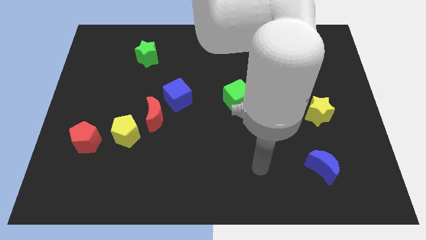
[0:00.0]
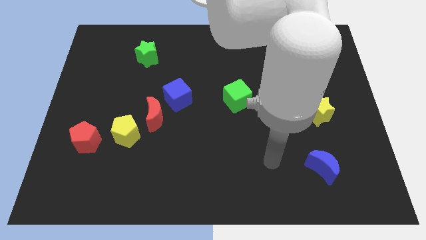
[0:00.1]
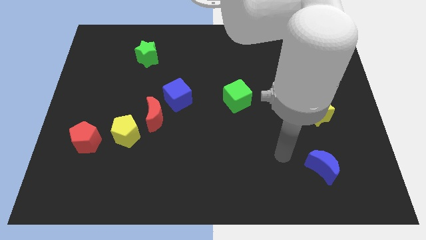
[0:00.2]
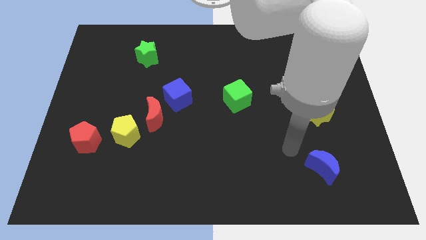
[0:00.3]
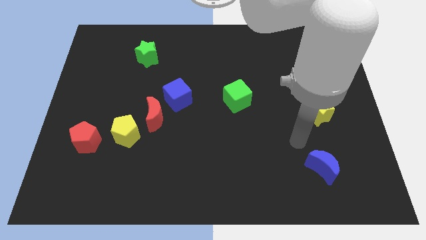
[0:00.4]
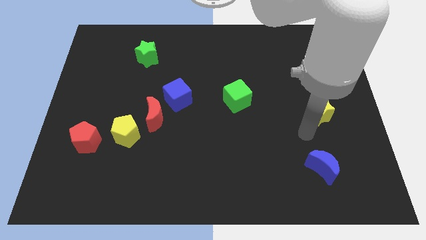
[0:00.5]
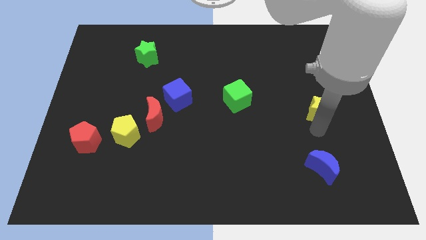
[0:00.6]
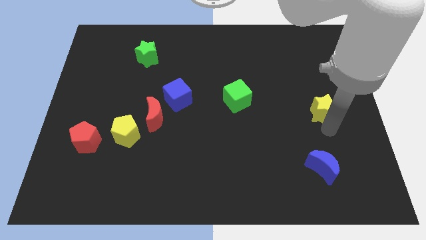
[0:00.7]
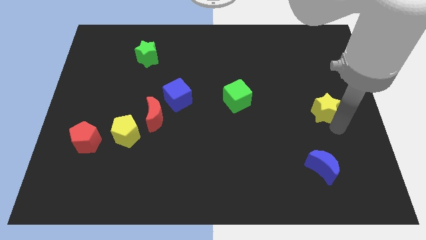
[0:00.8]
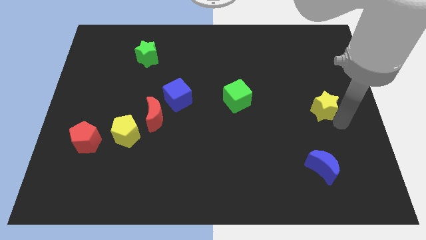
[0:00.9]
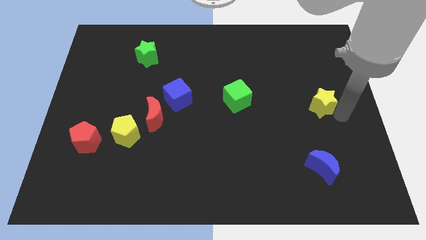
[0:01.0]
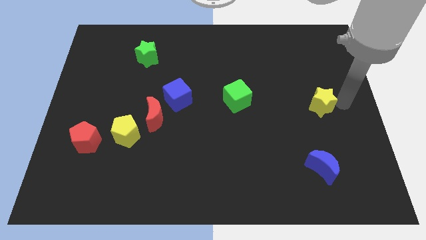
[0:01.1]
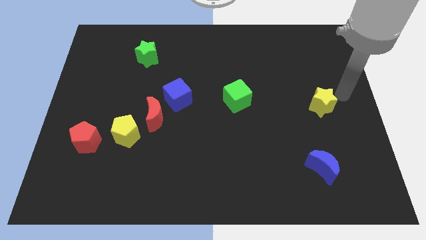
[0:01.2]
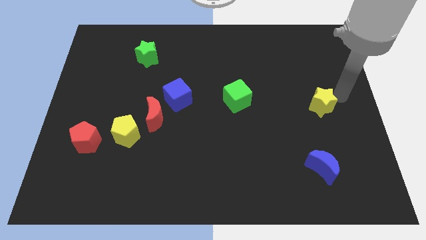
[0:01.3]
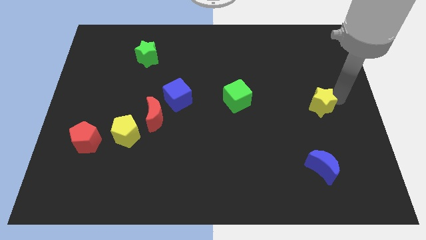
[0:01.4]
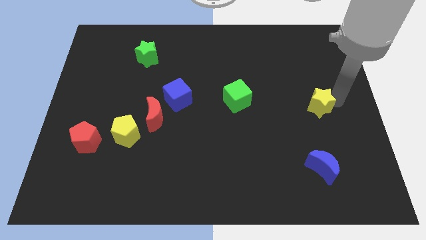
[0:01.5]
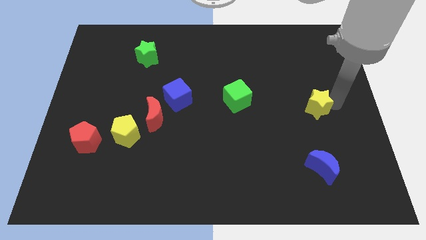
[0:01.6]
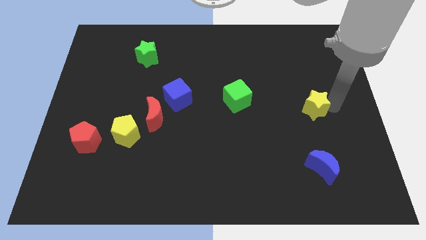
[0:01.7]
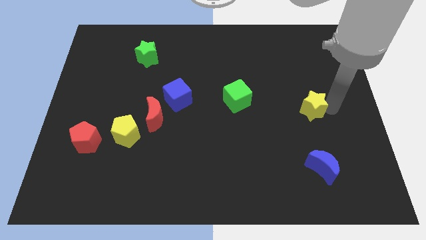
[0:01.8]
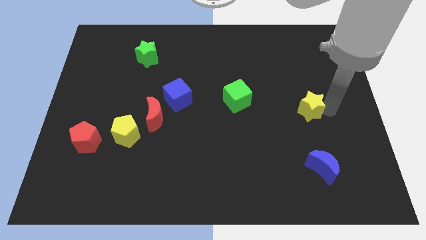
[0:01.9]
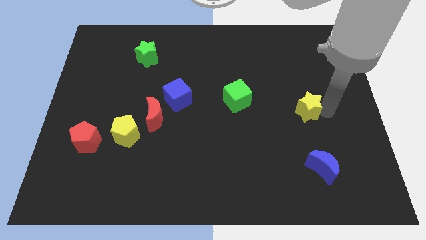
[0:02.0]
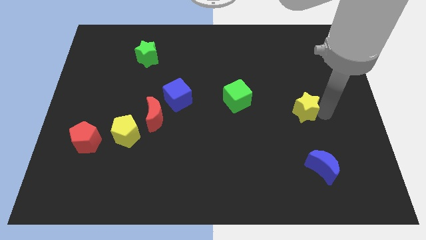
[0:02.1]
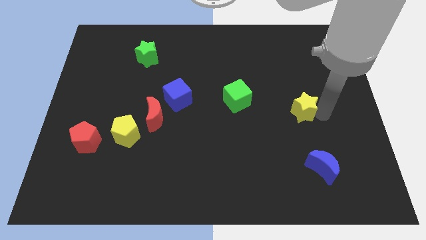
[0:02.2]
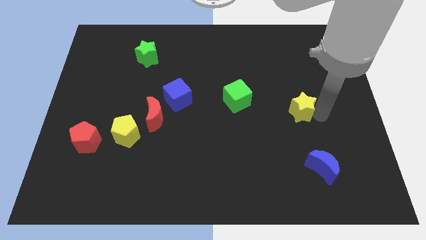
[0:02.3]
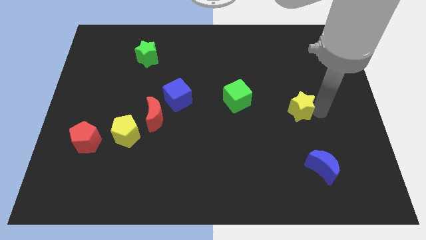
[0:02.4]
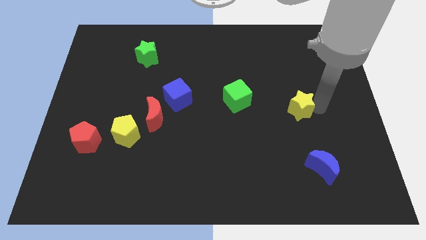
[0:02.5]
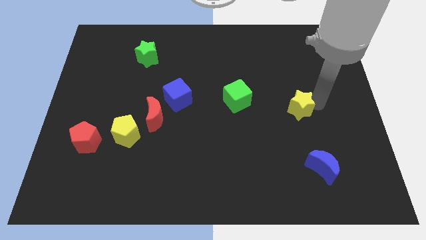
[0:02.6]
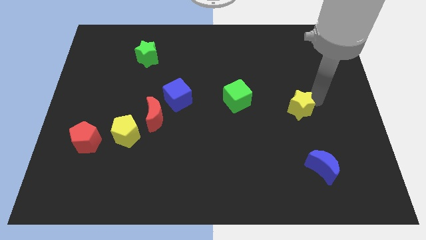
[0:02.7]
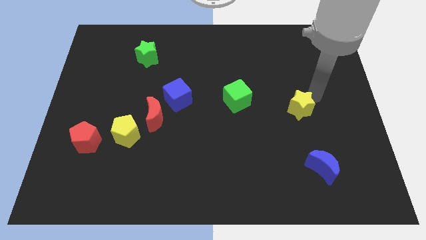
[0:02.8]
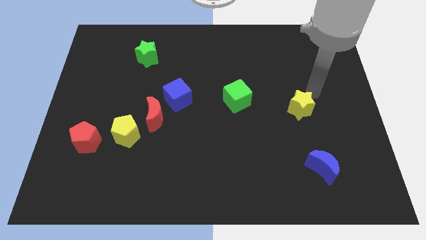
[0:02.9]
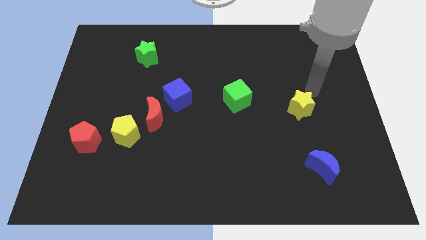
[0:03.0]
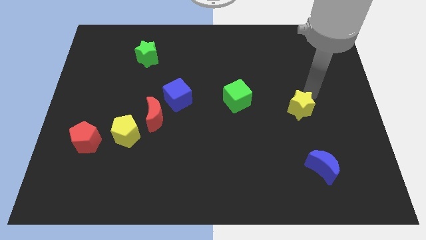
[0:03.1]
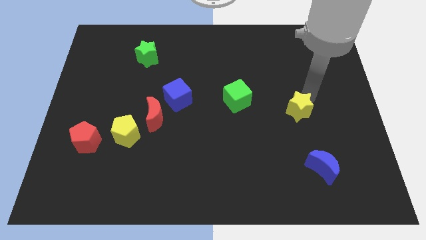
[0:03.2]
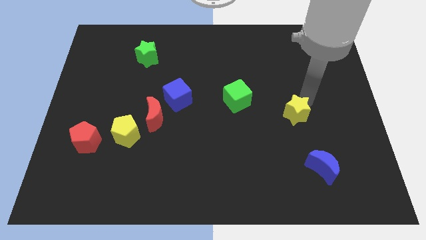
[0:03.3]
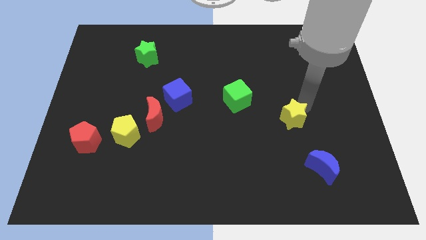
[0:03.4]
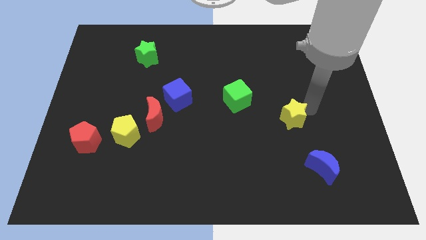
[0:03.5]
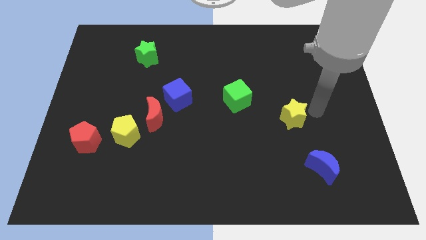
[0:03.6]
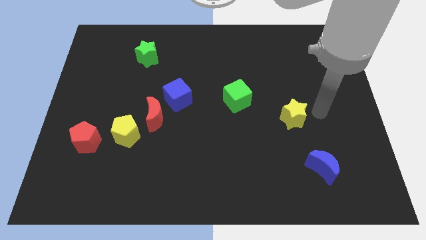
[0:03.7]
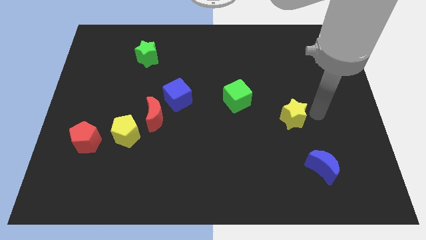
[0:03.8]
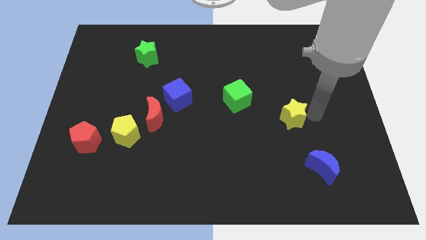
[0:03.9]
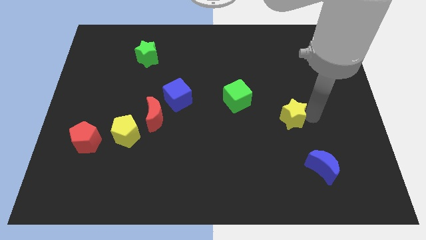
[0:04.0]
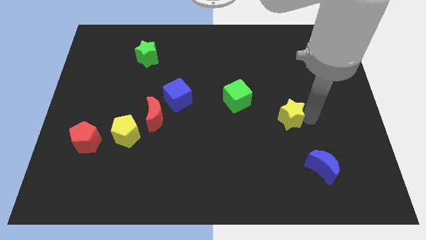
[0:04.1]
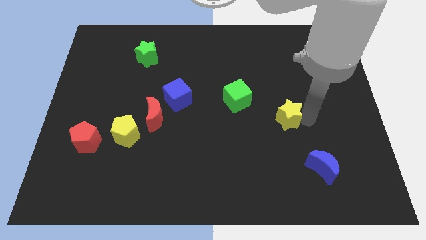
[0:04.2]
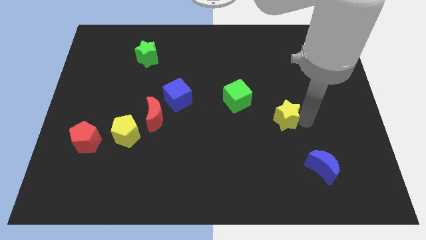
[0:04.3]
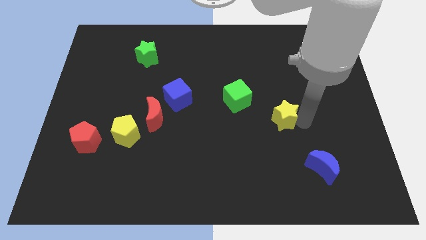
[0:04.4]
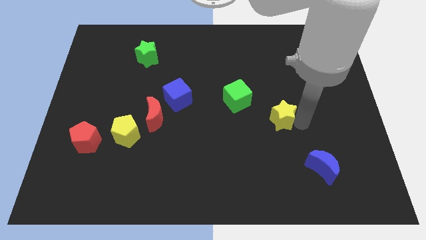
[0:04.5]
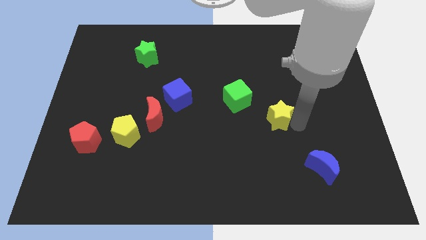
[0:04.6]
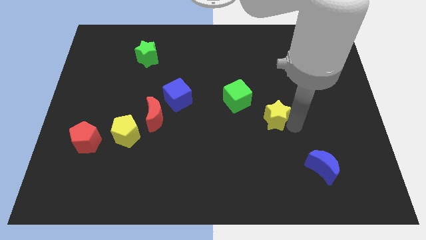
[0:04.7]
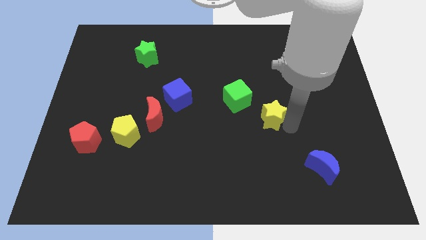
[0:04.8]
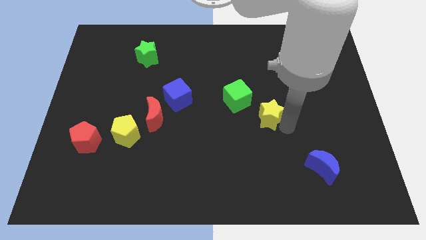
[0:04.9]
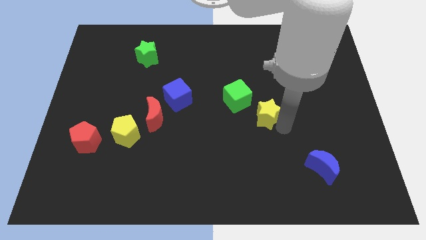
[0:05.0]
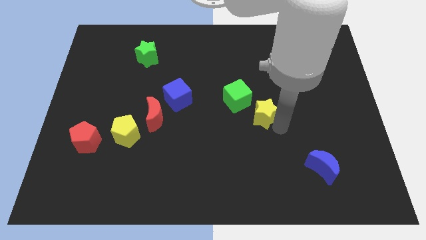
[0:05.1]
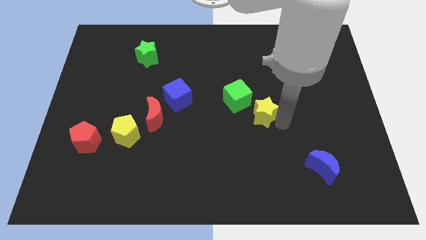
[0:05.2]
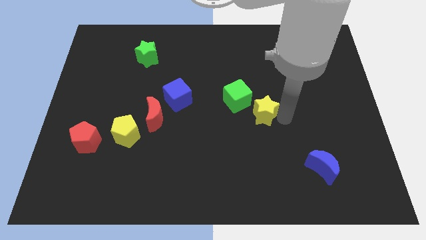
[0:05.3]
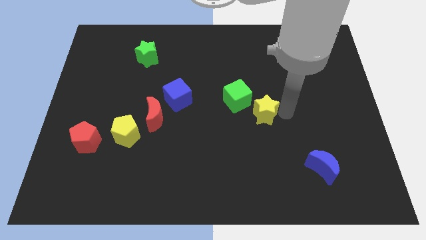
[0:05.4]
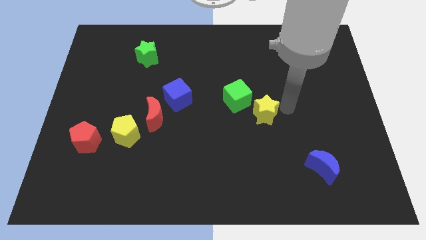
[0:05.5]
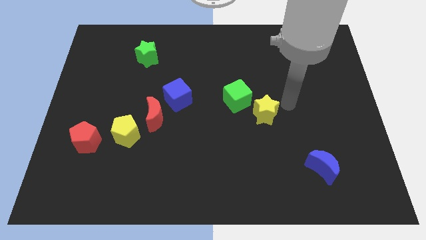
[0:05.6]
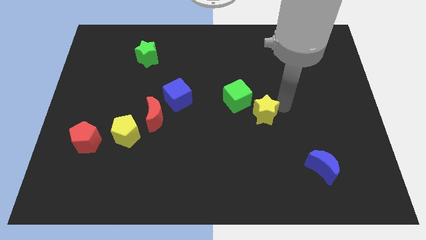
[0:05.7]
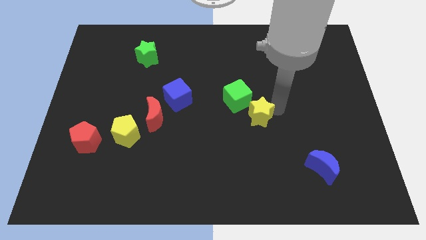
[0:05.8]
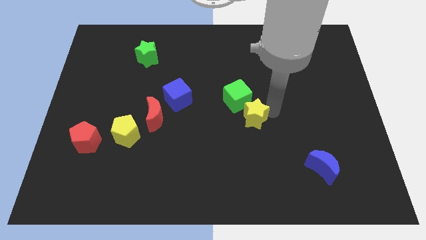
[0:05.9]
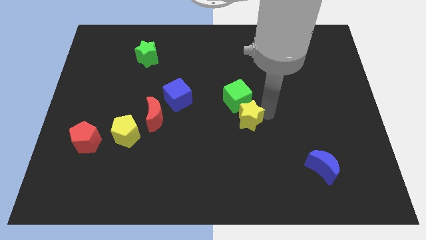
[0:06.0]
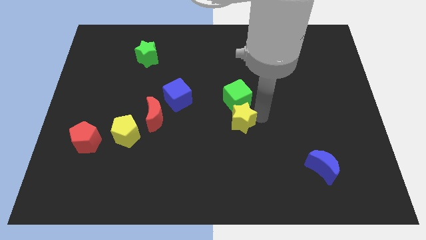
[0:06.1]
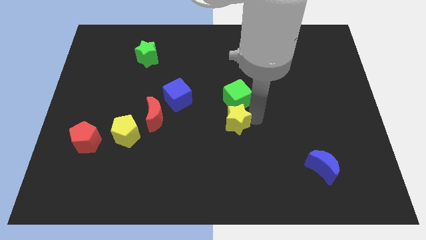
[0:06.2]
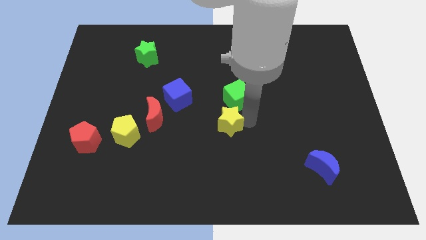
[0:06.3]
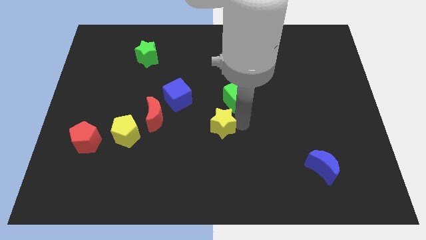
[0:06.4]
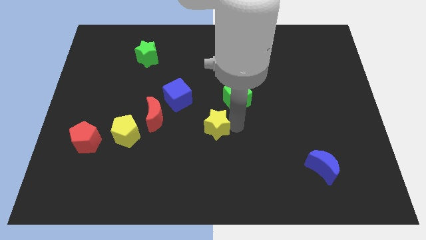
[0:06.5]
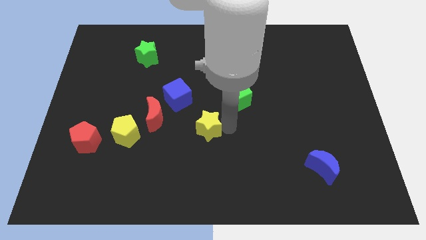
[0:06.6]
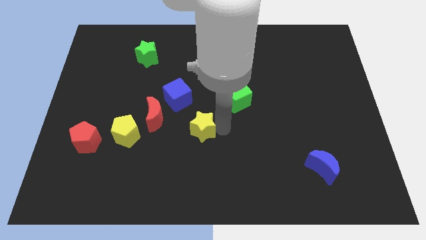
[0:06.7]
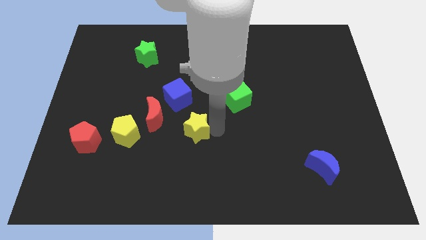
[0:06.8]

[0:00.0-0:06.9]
move the yellow star to the bottom of the blue cube
